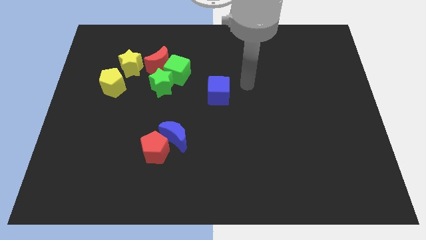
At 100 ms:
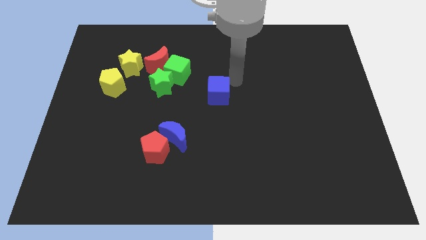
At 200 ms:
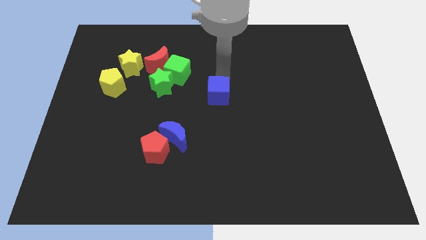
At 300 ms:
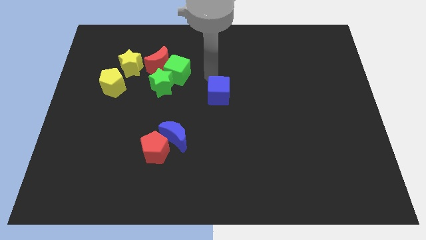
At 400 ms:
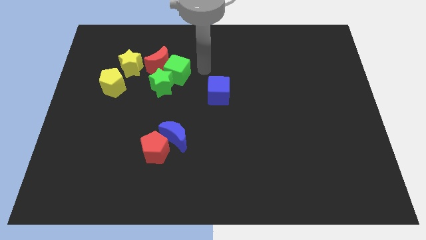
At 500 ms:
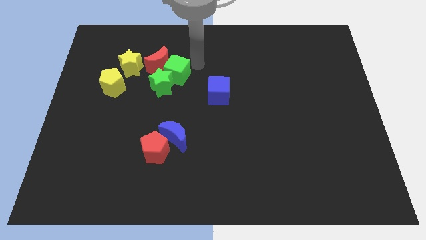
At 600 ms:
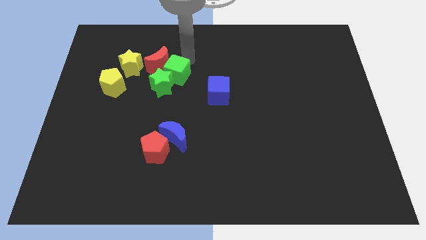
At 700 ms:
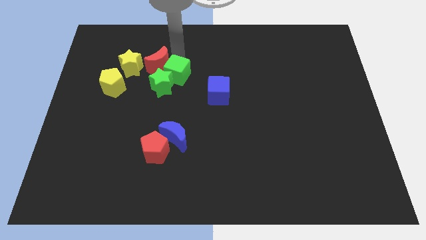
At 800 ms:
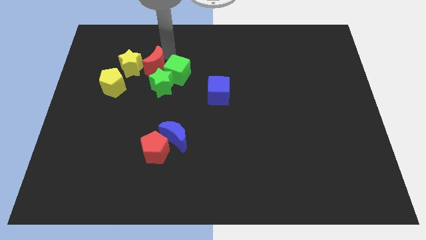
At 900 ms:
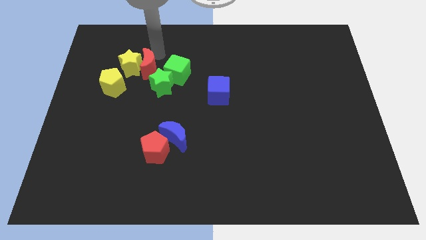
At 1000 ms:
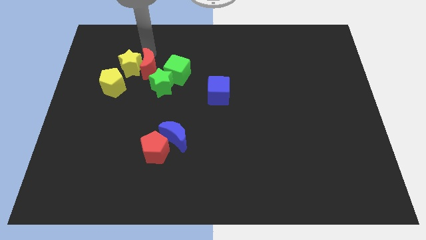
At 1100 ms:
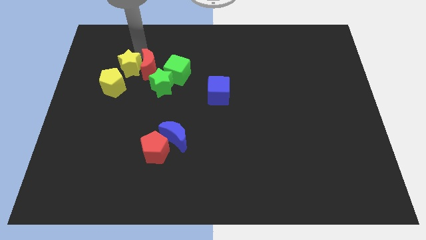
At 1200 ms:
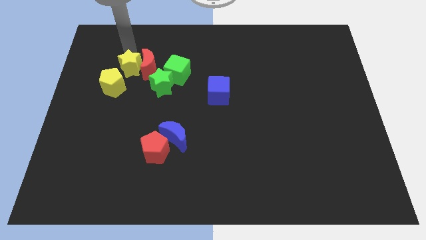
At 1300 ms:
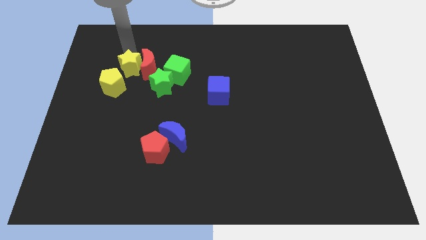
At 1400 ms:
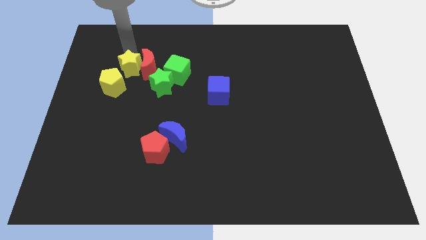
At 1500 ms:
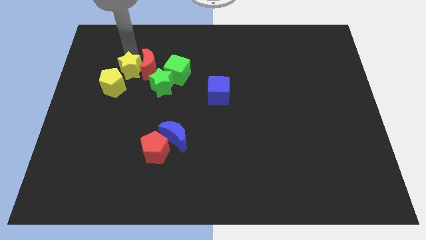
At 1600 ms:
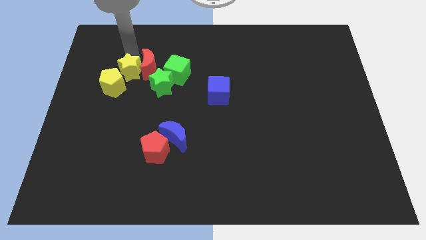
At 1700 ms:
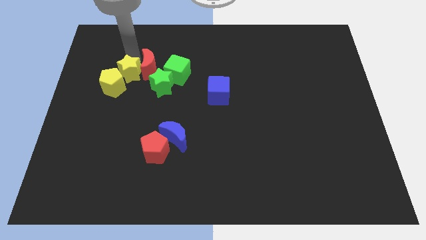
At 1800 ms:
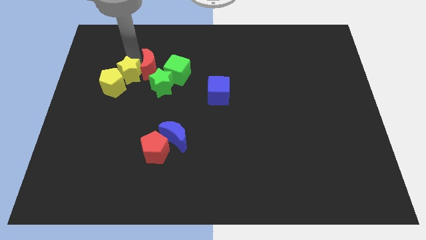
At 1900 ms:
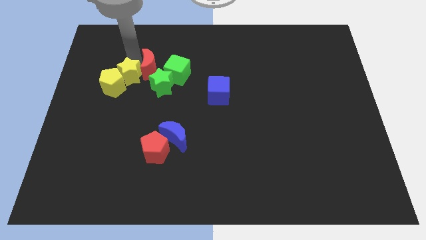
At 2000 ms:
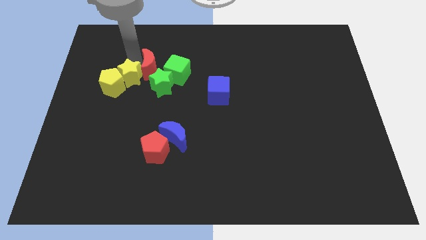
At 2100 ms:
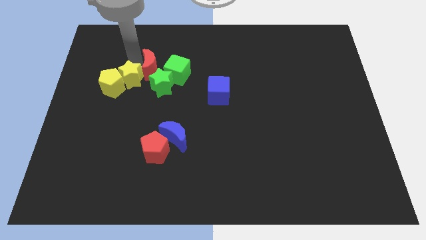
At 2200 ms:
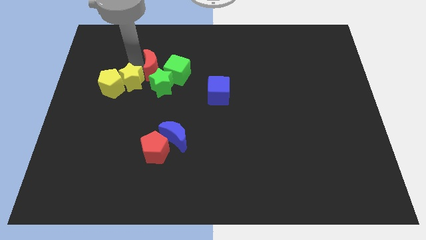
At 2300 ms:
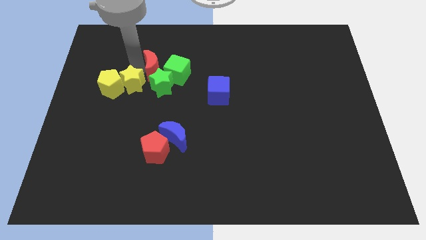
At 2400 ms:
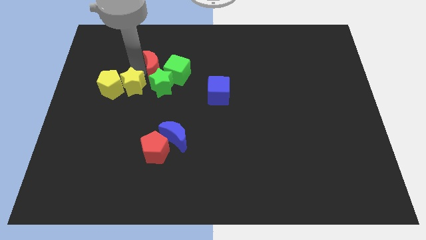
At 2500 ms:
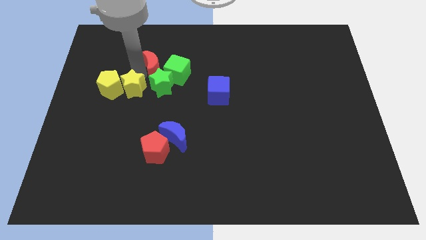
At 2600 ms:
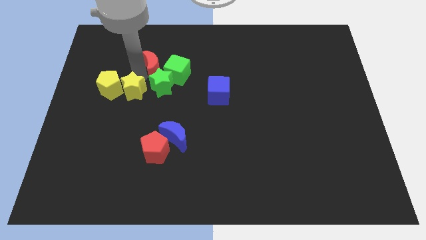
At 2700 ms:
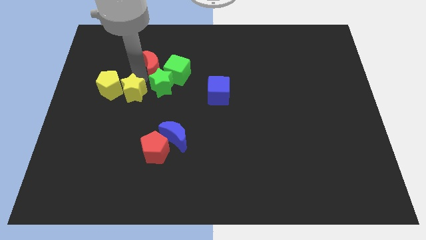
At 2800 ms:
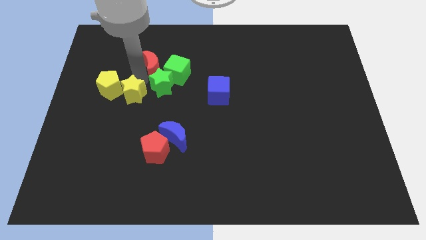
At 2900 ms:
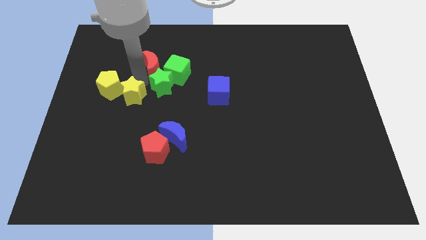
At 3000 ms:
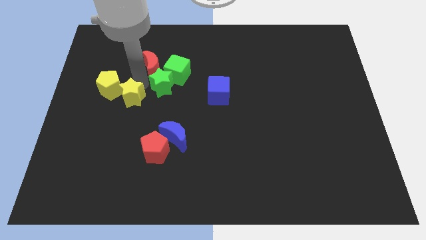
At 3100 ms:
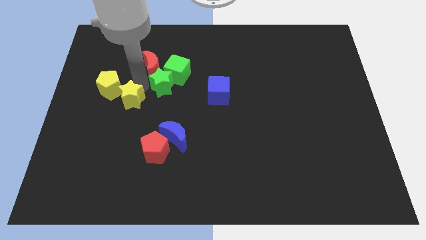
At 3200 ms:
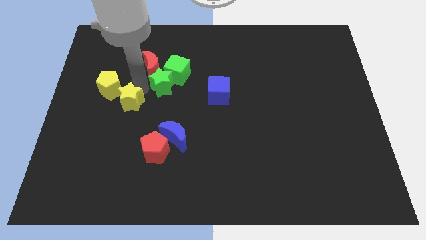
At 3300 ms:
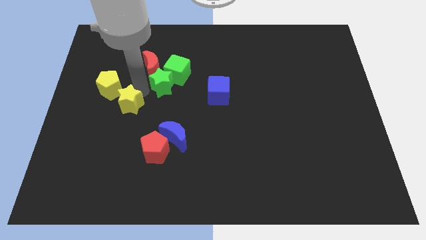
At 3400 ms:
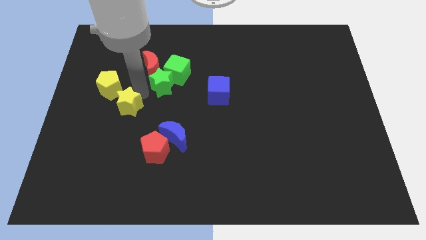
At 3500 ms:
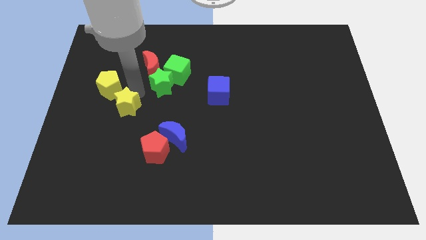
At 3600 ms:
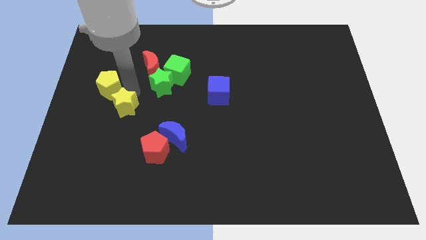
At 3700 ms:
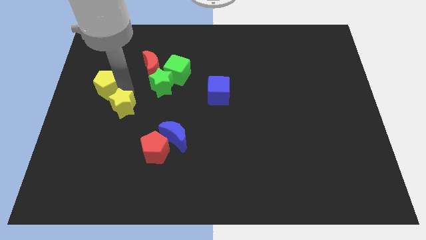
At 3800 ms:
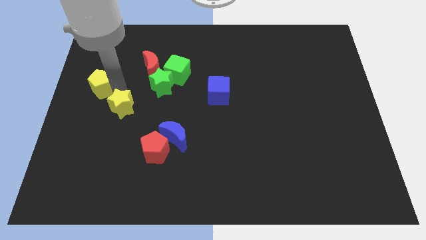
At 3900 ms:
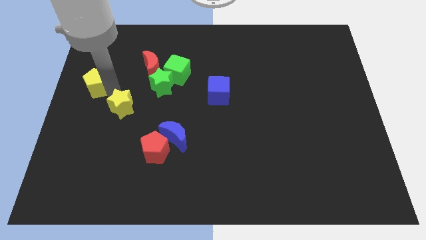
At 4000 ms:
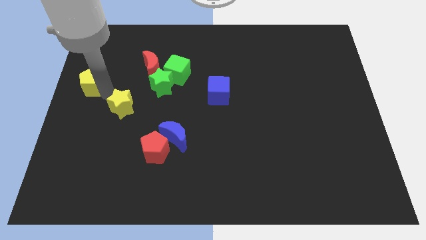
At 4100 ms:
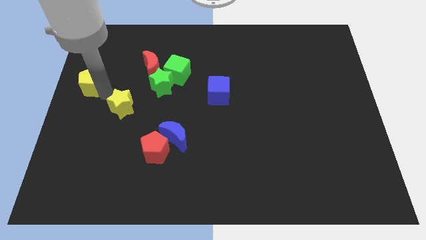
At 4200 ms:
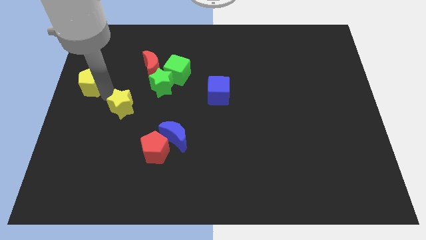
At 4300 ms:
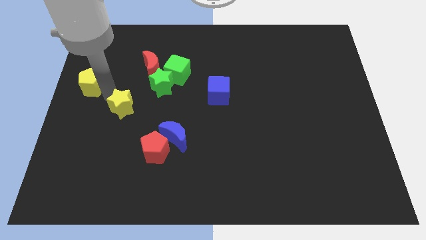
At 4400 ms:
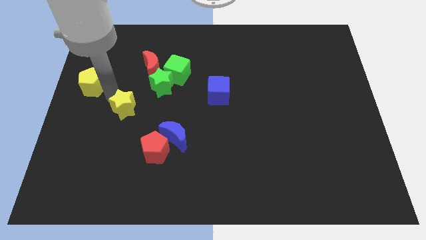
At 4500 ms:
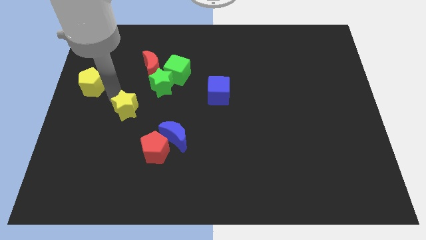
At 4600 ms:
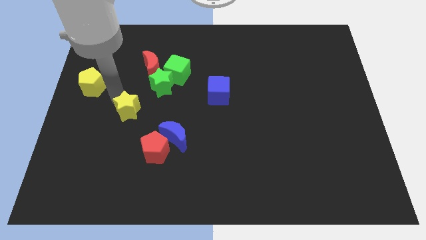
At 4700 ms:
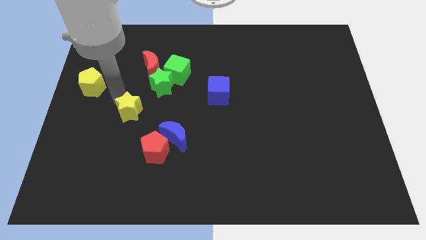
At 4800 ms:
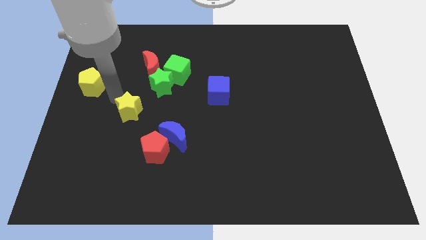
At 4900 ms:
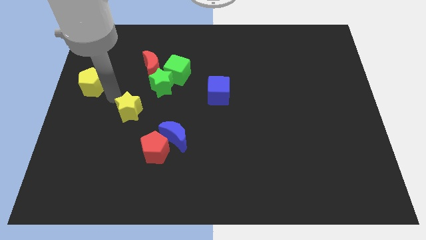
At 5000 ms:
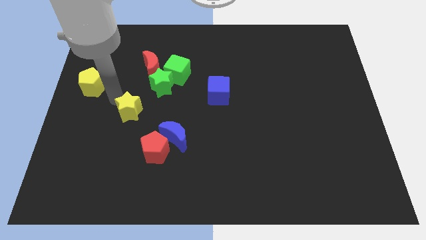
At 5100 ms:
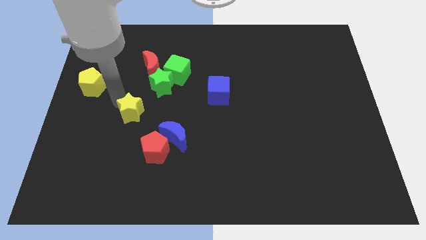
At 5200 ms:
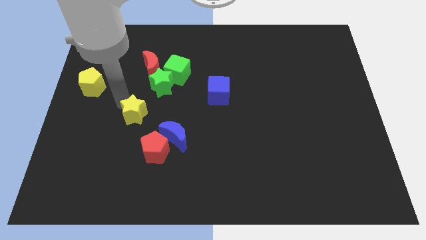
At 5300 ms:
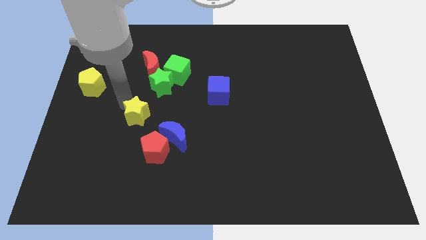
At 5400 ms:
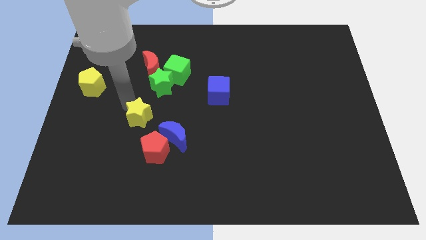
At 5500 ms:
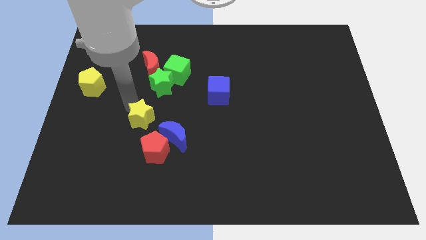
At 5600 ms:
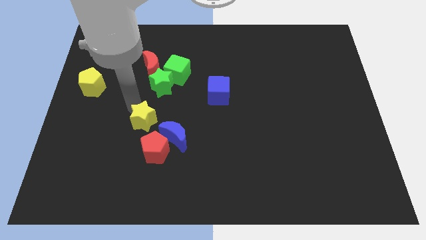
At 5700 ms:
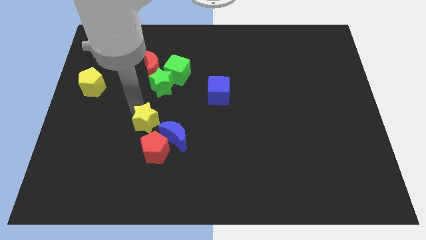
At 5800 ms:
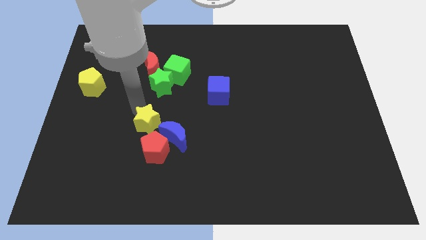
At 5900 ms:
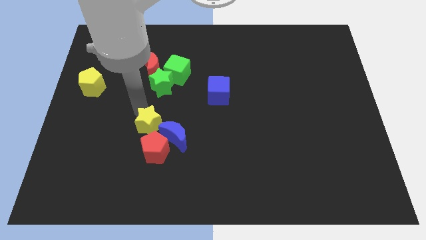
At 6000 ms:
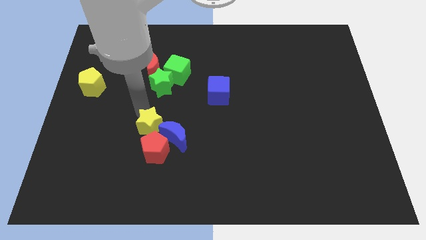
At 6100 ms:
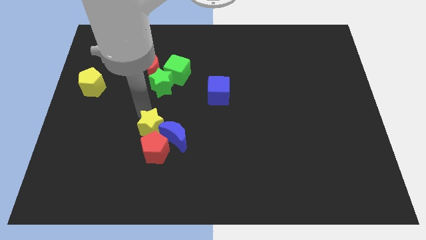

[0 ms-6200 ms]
move the yellow star next to the red pentagon

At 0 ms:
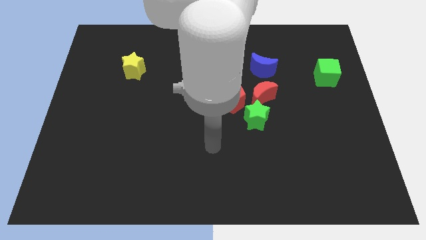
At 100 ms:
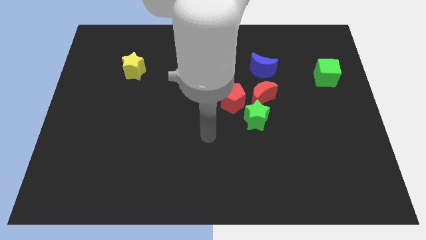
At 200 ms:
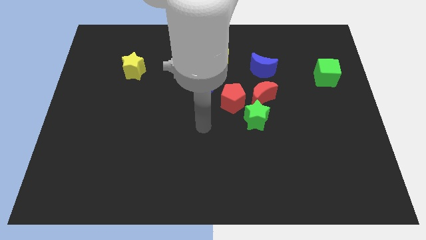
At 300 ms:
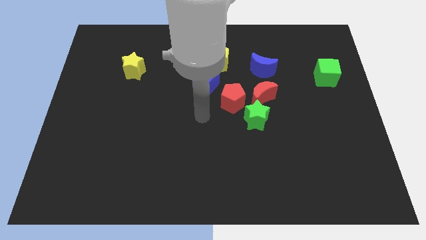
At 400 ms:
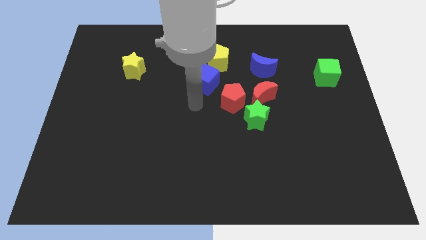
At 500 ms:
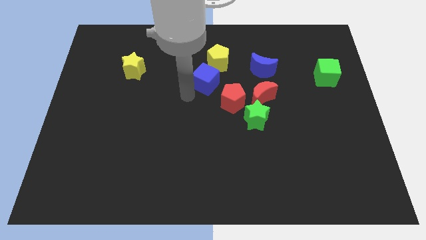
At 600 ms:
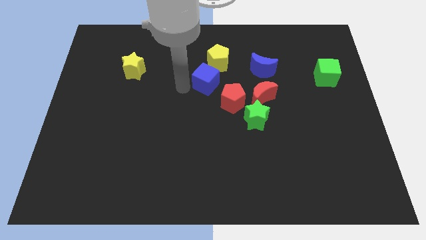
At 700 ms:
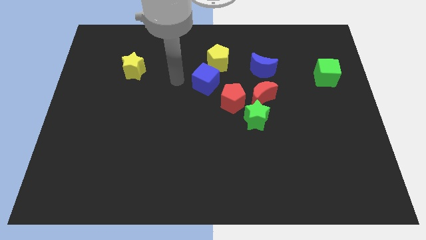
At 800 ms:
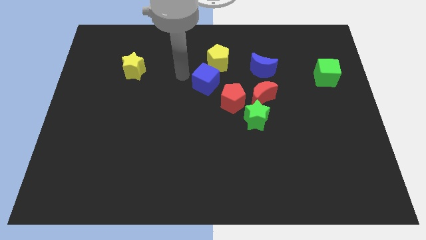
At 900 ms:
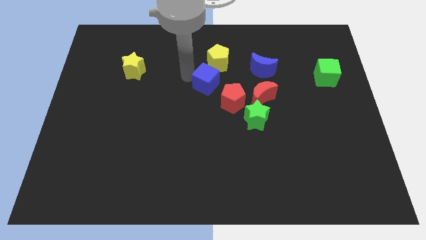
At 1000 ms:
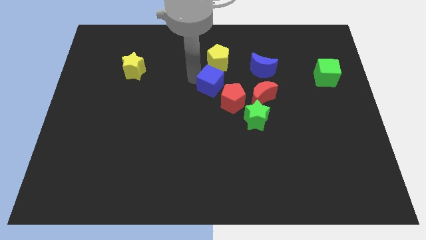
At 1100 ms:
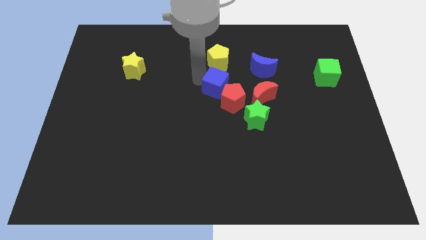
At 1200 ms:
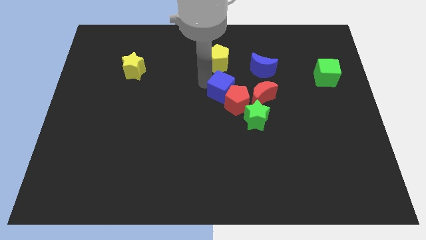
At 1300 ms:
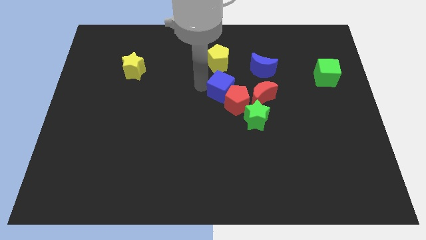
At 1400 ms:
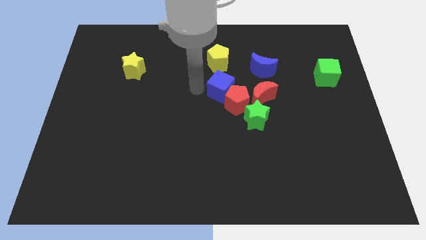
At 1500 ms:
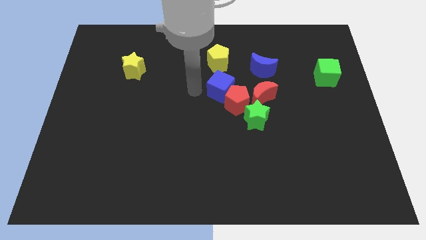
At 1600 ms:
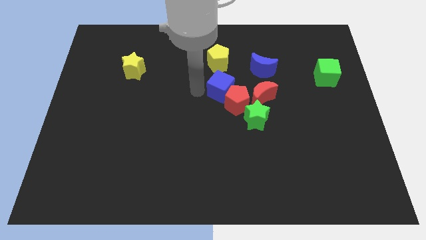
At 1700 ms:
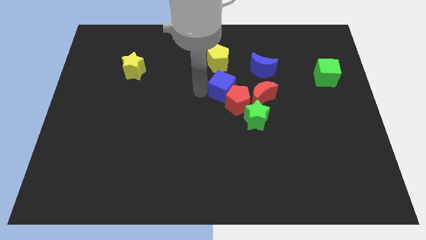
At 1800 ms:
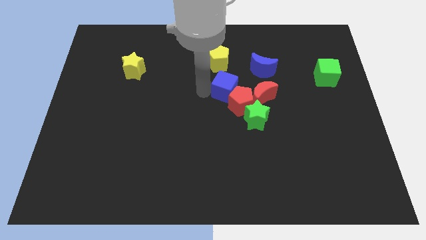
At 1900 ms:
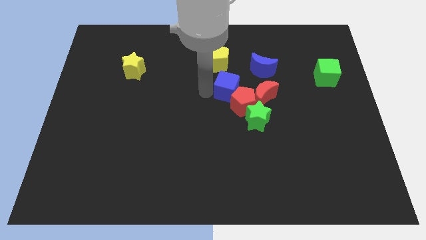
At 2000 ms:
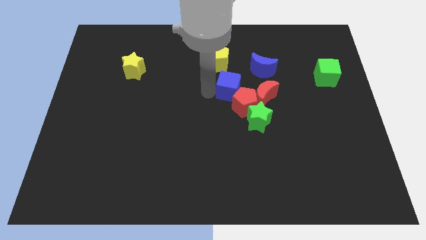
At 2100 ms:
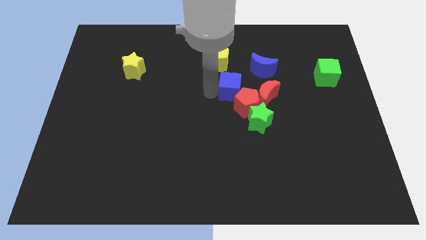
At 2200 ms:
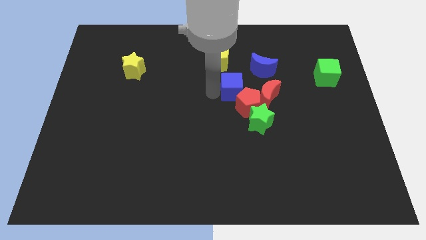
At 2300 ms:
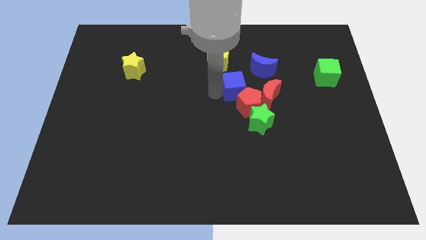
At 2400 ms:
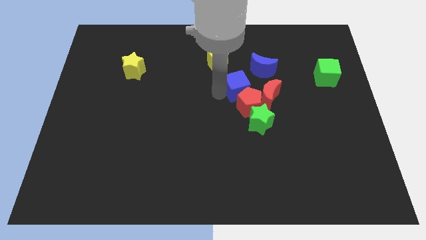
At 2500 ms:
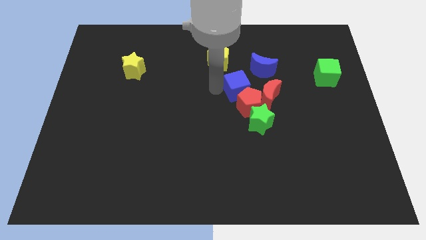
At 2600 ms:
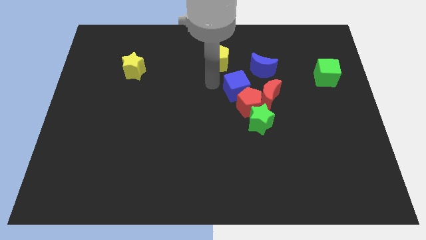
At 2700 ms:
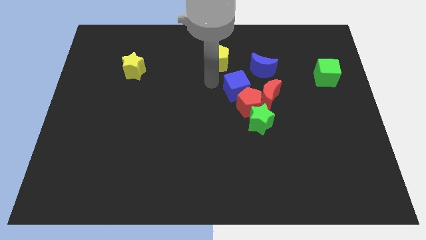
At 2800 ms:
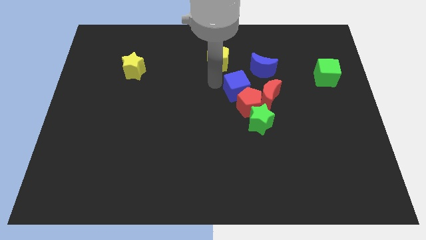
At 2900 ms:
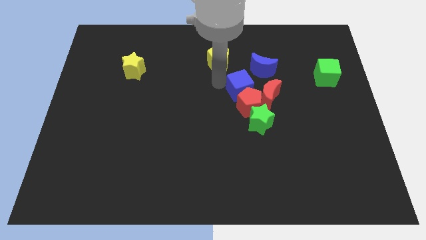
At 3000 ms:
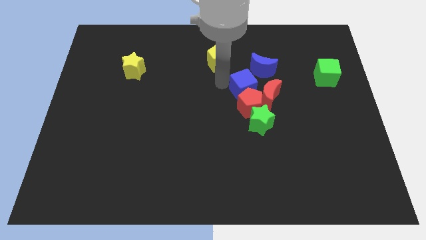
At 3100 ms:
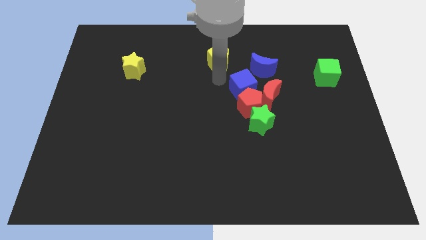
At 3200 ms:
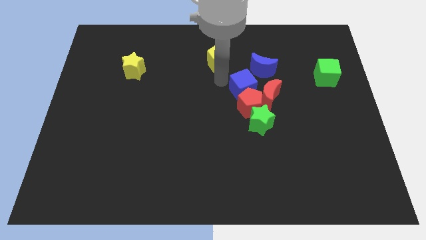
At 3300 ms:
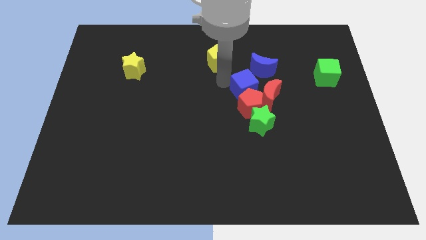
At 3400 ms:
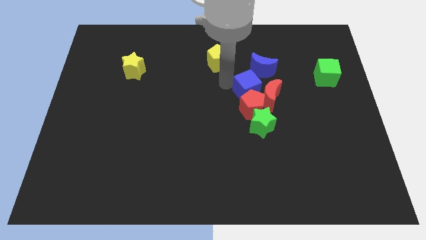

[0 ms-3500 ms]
slide the blue cube to the red moon
